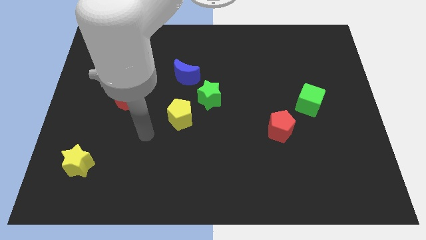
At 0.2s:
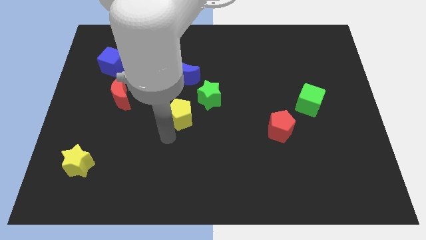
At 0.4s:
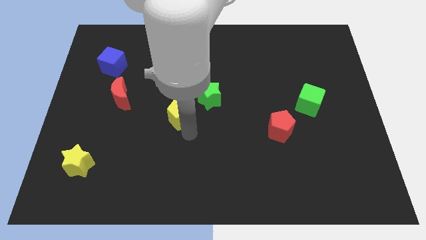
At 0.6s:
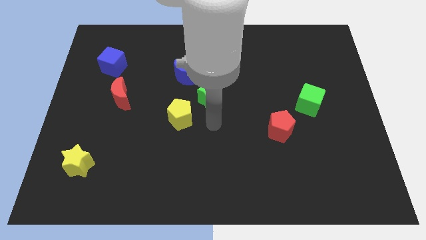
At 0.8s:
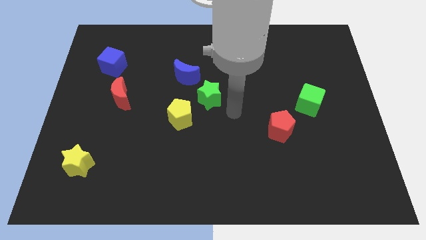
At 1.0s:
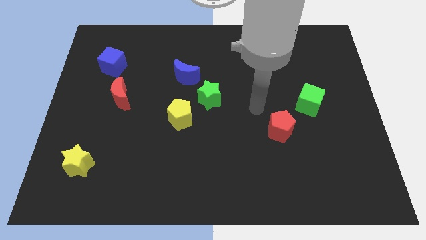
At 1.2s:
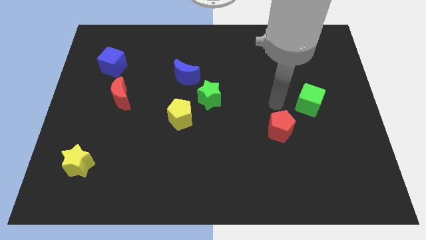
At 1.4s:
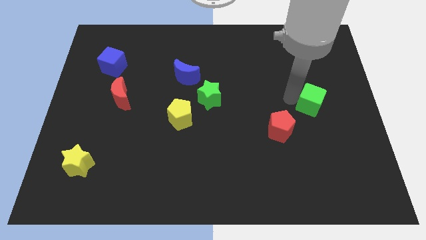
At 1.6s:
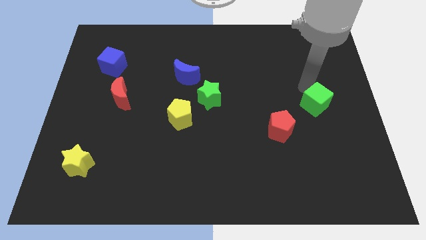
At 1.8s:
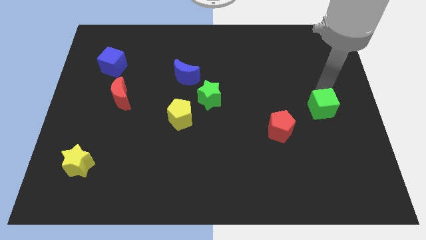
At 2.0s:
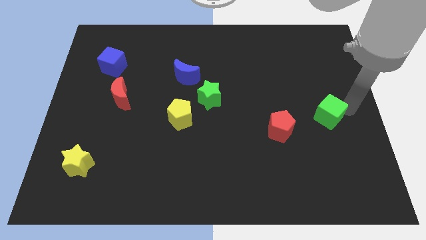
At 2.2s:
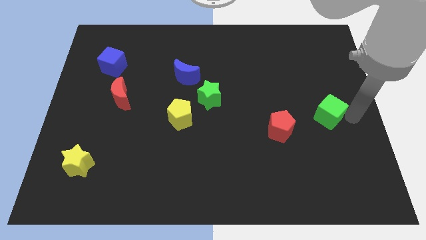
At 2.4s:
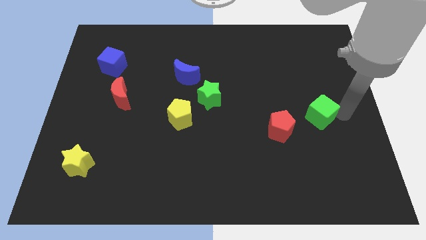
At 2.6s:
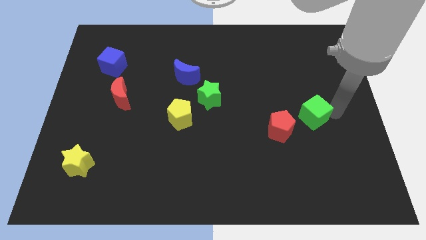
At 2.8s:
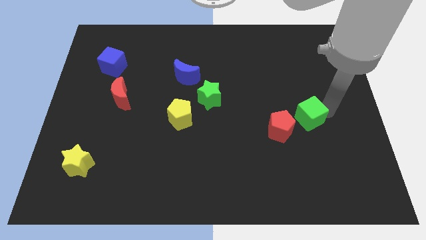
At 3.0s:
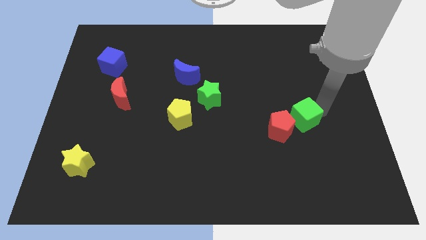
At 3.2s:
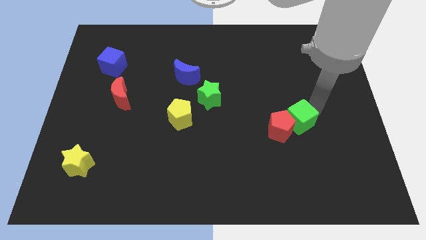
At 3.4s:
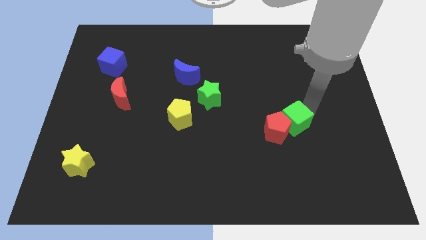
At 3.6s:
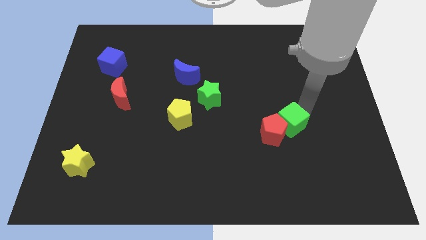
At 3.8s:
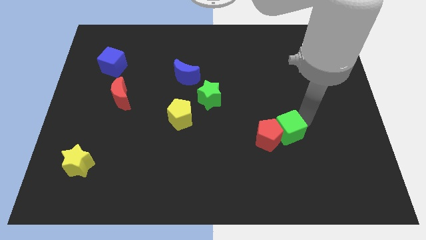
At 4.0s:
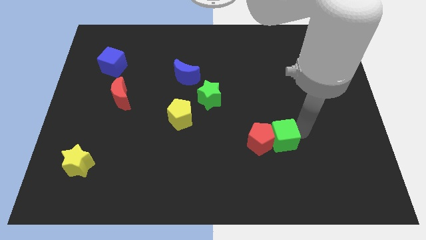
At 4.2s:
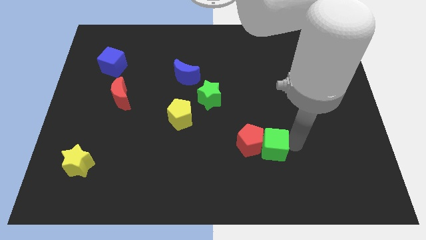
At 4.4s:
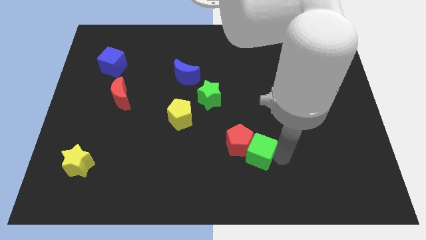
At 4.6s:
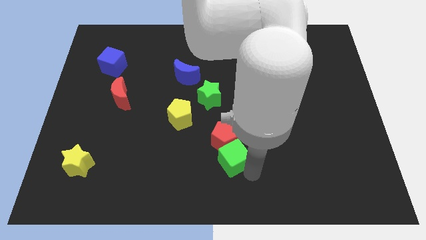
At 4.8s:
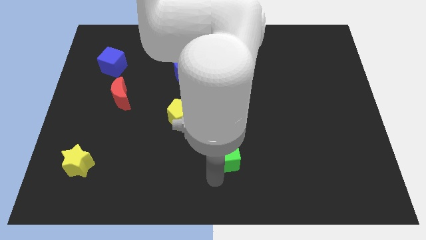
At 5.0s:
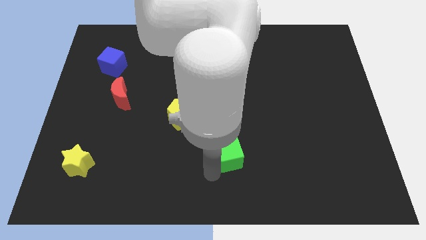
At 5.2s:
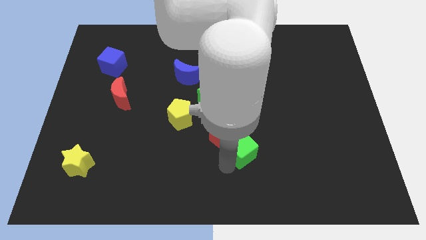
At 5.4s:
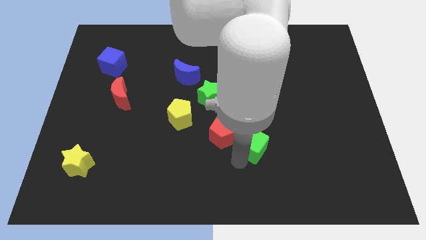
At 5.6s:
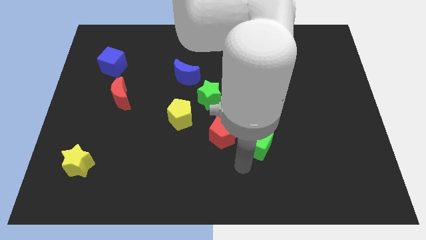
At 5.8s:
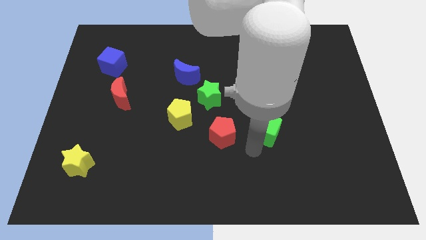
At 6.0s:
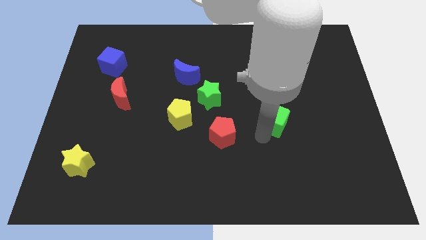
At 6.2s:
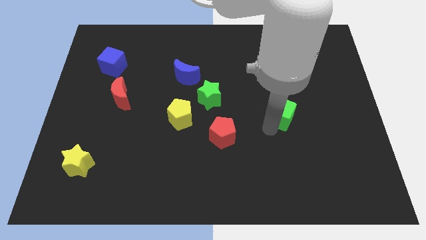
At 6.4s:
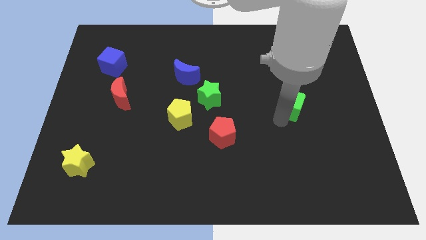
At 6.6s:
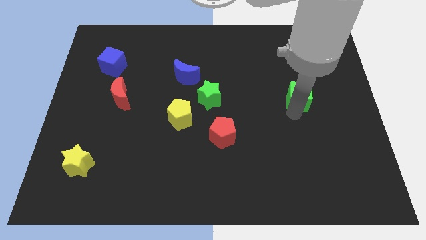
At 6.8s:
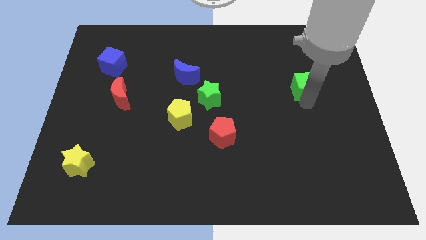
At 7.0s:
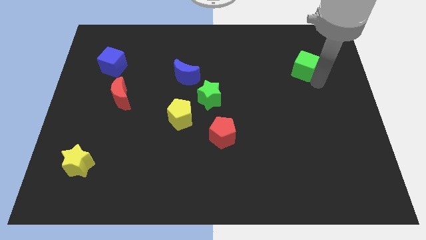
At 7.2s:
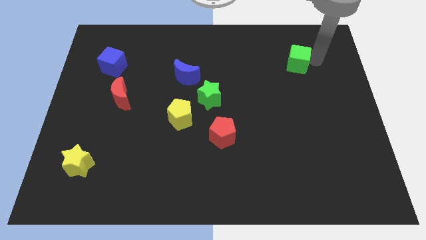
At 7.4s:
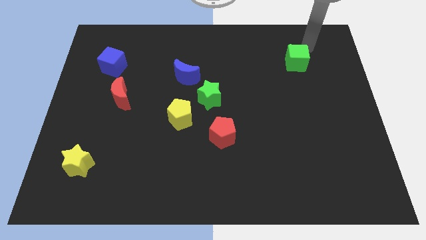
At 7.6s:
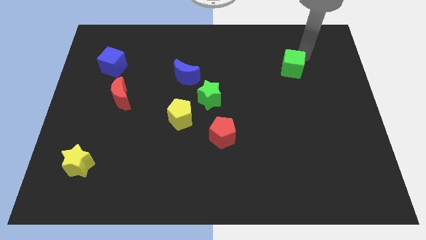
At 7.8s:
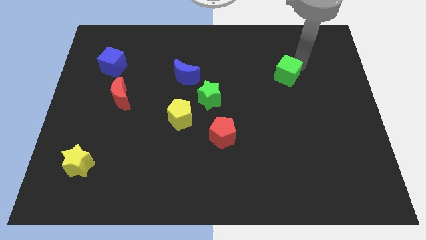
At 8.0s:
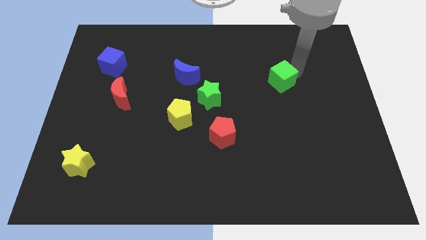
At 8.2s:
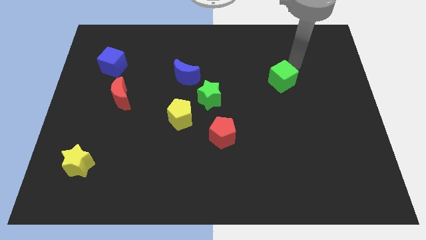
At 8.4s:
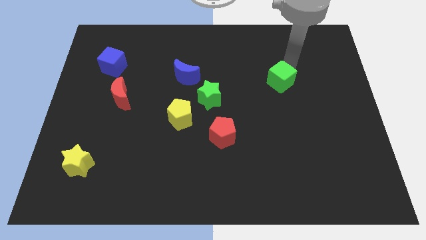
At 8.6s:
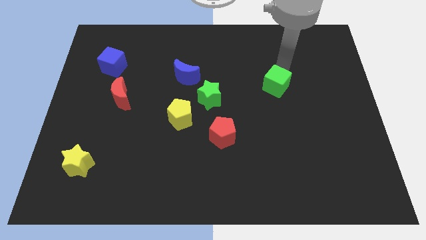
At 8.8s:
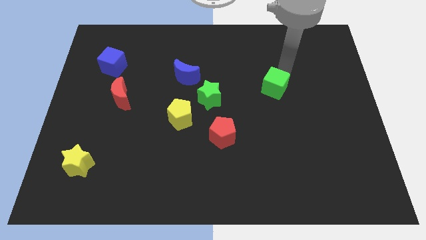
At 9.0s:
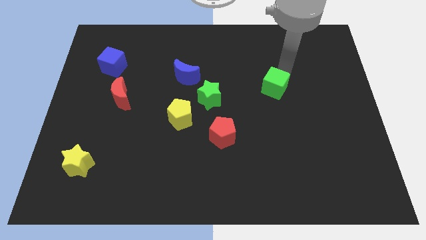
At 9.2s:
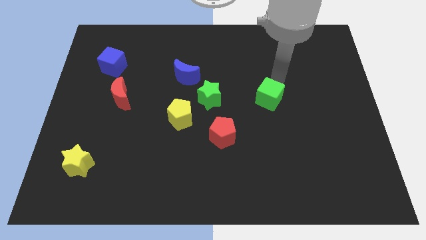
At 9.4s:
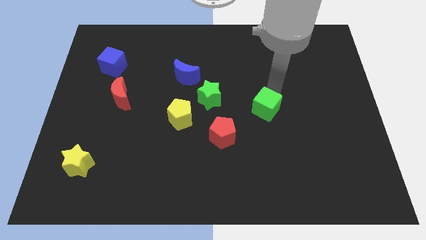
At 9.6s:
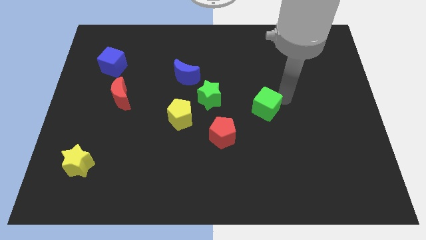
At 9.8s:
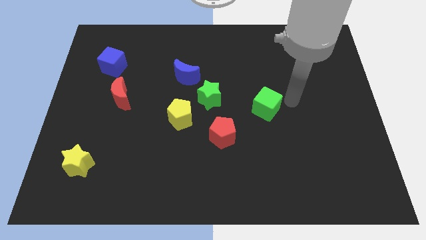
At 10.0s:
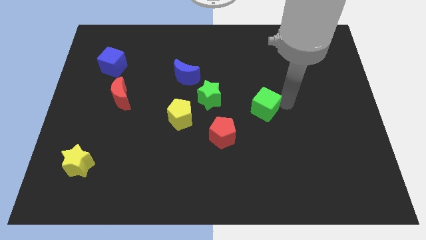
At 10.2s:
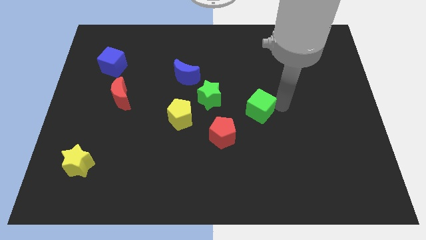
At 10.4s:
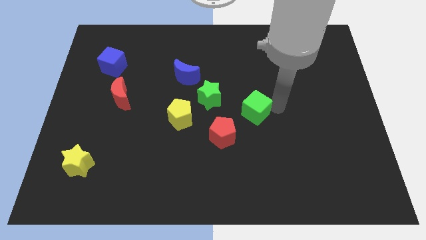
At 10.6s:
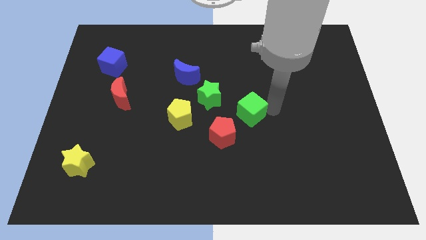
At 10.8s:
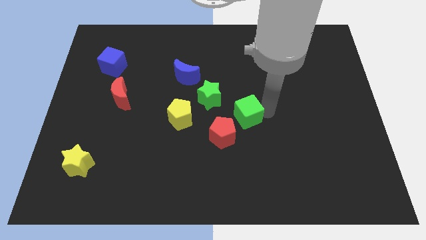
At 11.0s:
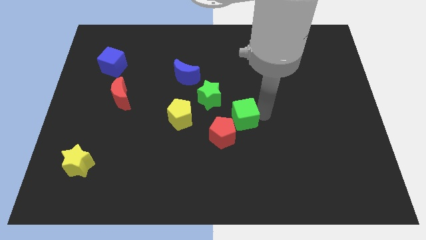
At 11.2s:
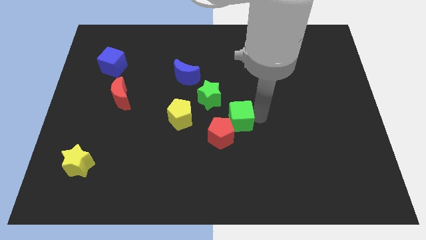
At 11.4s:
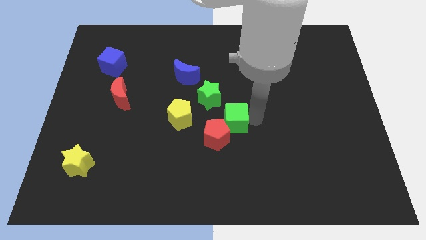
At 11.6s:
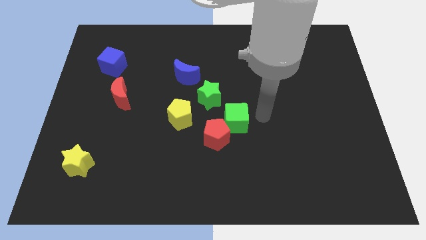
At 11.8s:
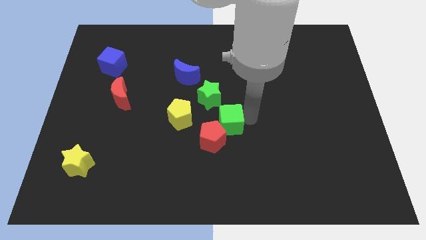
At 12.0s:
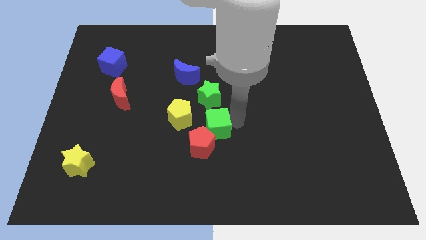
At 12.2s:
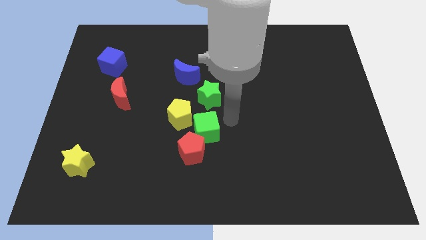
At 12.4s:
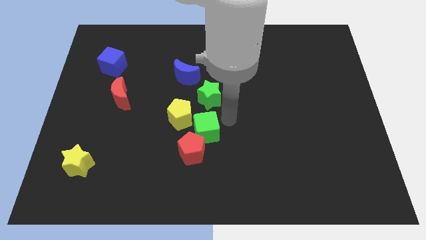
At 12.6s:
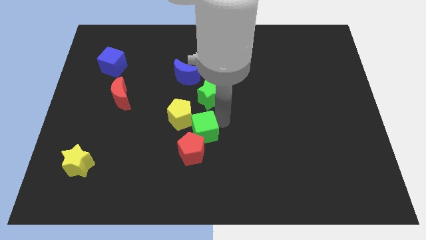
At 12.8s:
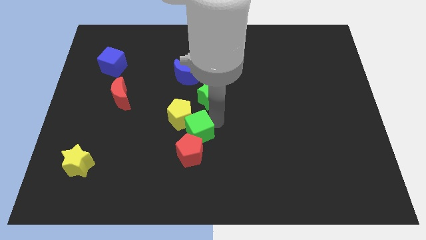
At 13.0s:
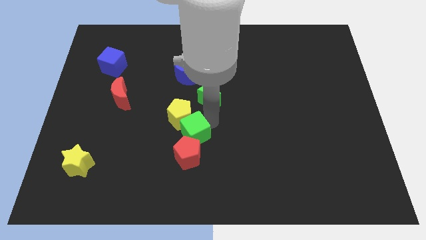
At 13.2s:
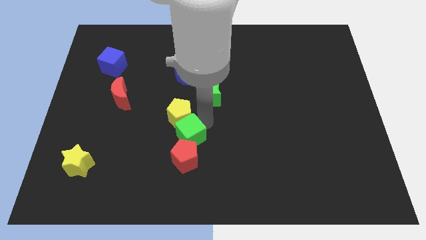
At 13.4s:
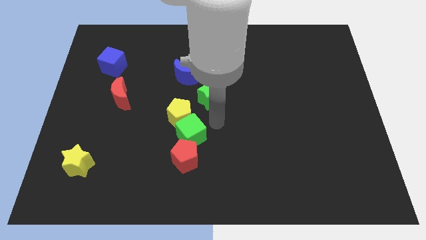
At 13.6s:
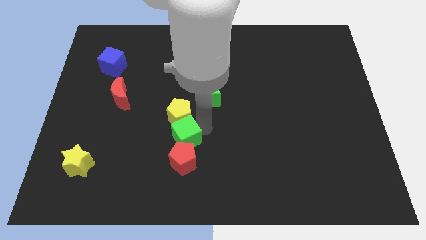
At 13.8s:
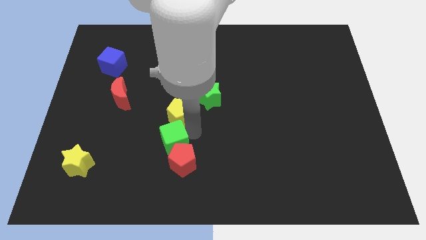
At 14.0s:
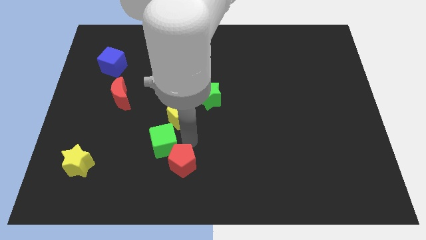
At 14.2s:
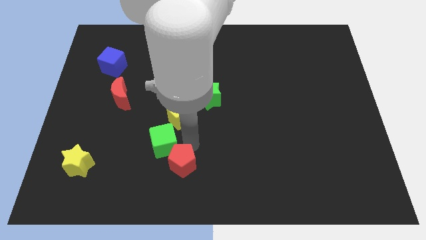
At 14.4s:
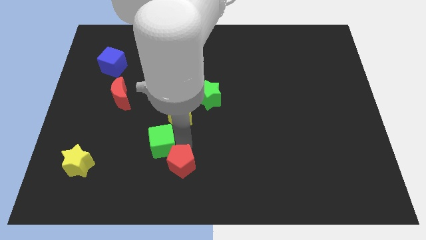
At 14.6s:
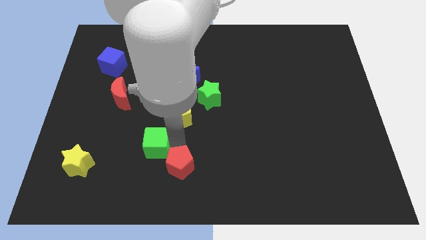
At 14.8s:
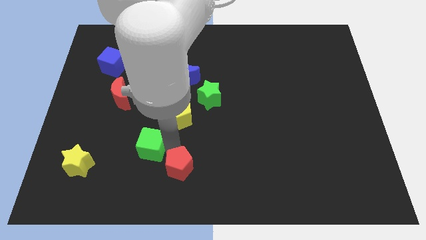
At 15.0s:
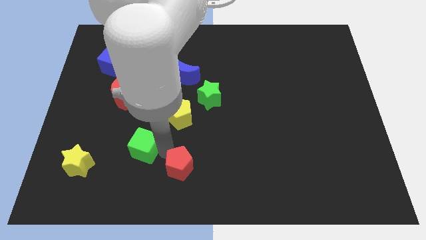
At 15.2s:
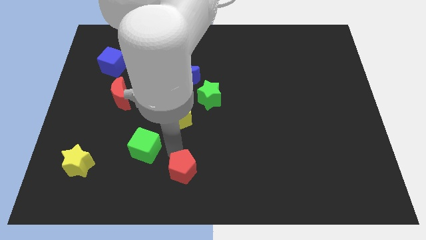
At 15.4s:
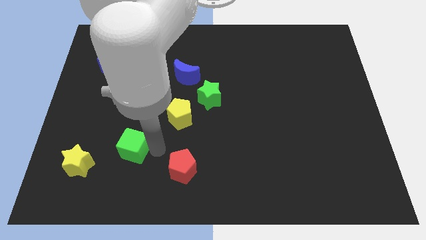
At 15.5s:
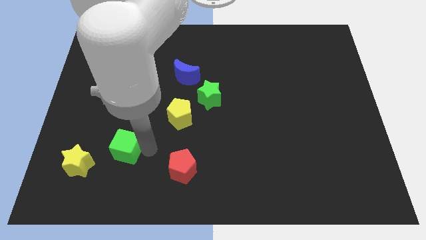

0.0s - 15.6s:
put the green cube to the top right side of the yellow star

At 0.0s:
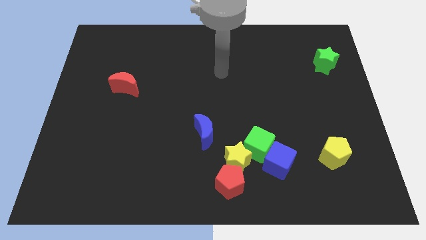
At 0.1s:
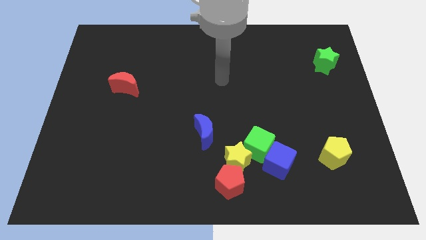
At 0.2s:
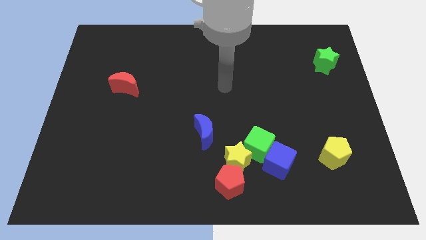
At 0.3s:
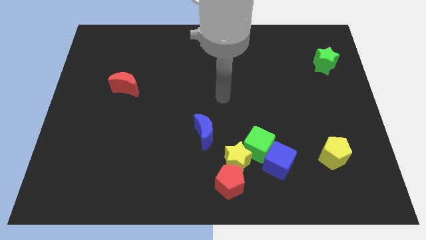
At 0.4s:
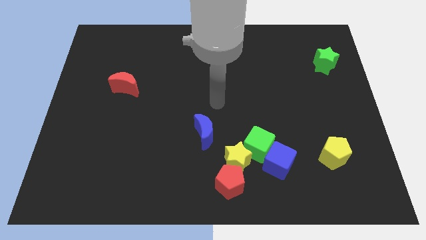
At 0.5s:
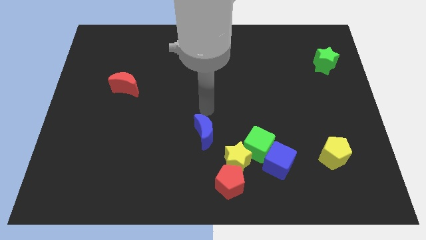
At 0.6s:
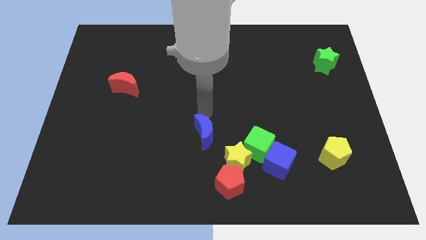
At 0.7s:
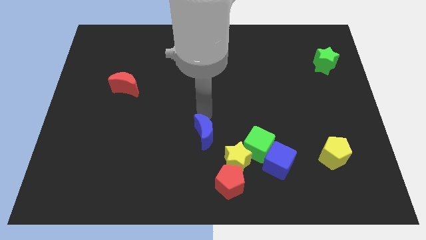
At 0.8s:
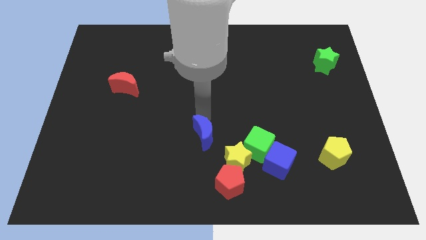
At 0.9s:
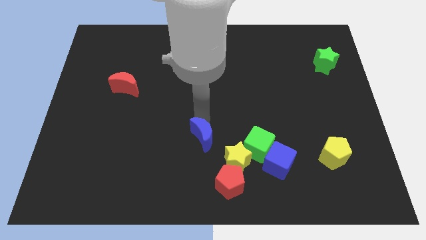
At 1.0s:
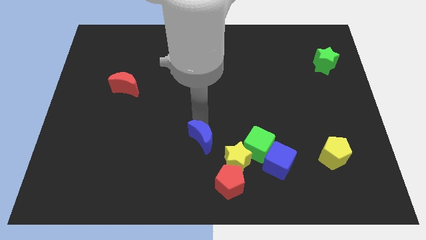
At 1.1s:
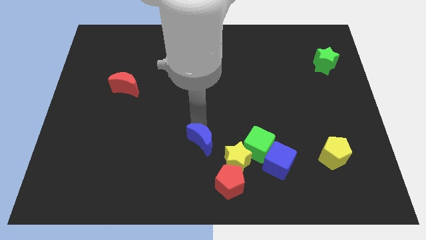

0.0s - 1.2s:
put the blue moon to the top left of the red pentagon
